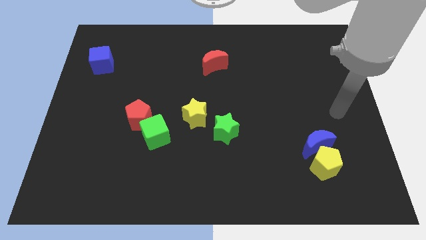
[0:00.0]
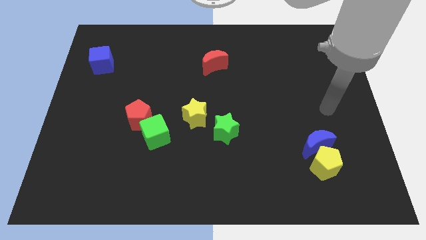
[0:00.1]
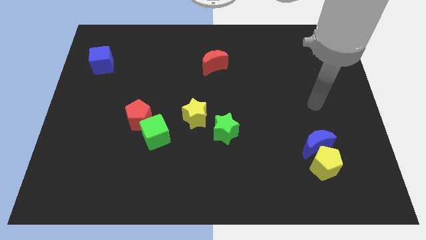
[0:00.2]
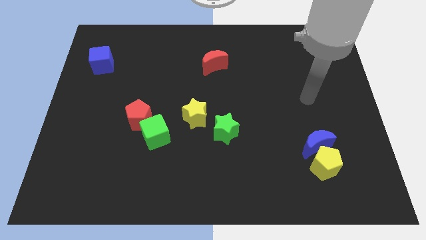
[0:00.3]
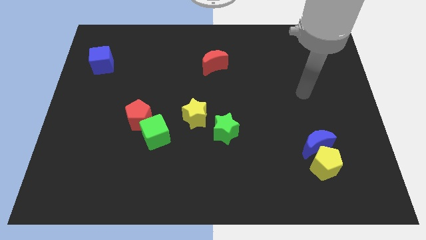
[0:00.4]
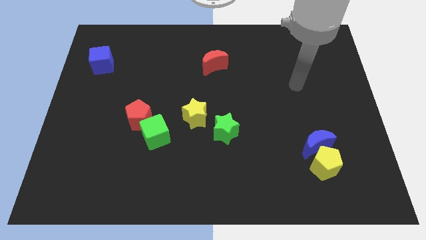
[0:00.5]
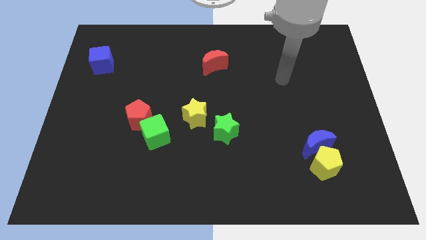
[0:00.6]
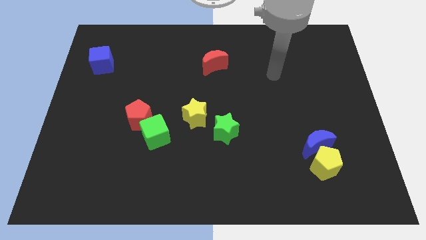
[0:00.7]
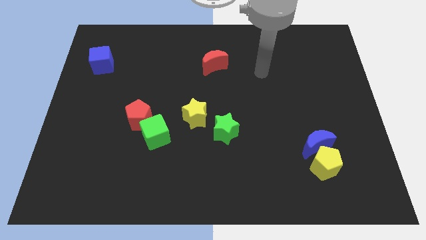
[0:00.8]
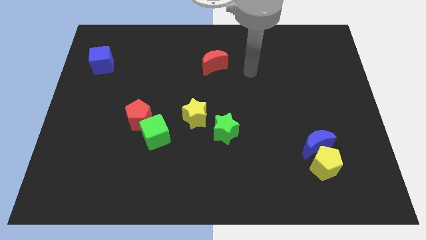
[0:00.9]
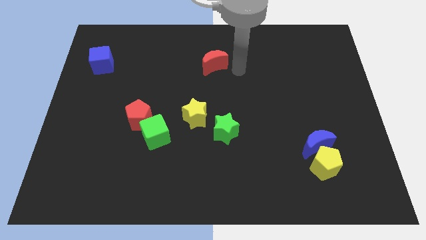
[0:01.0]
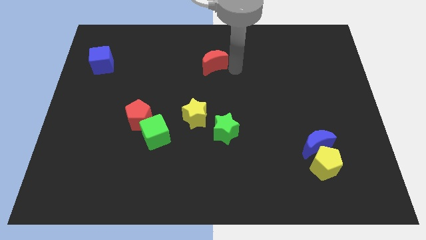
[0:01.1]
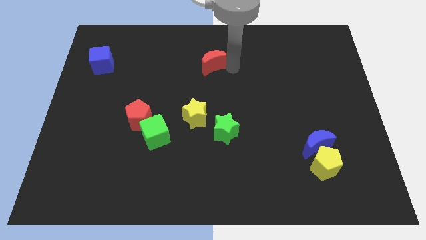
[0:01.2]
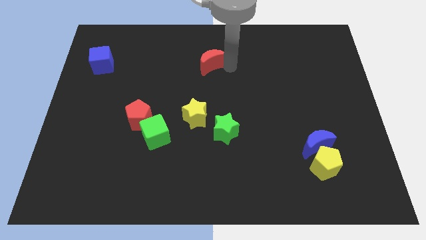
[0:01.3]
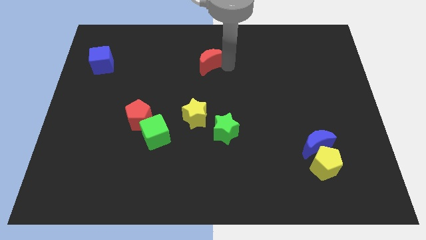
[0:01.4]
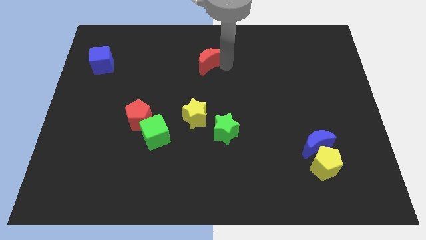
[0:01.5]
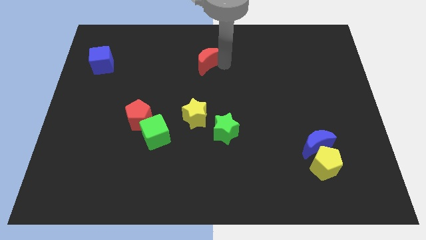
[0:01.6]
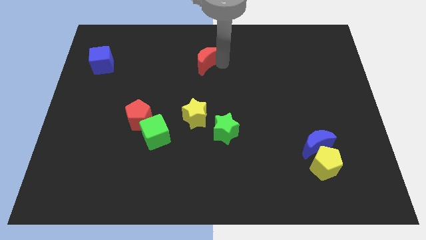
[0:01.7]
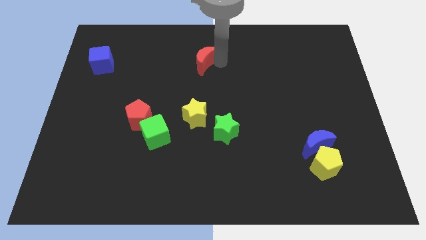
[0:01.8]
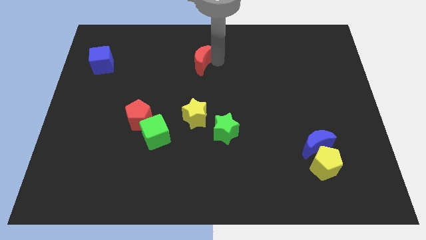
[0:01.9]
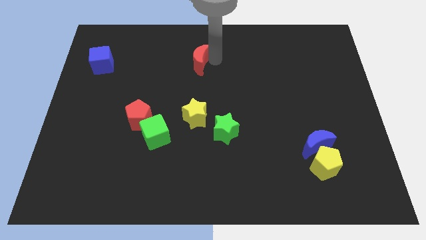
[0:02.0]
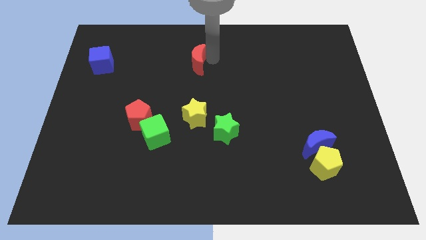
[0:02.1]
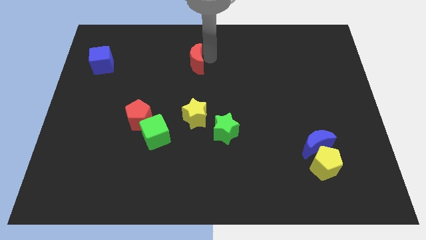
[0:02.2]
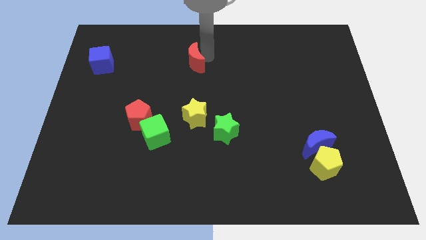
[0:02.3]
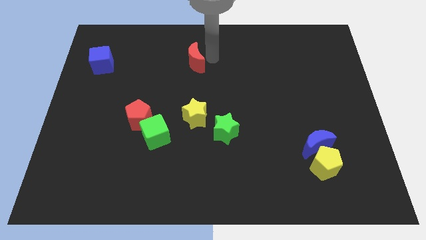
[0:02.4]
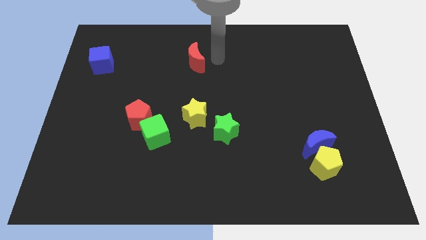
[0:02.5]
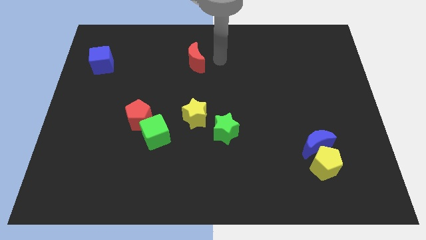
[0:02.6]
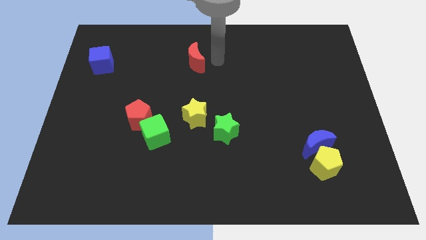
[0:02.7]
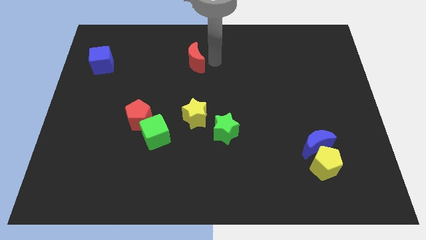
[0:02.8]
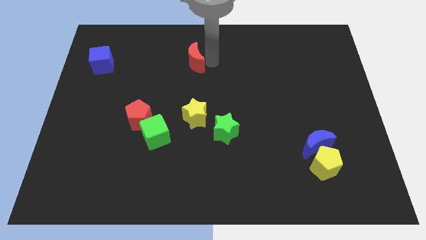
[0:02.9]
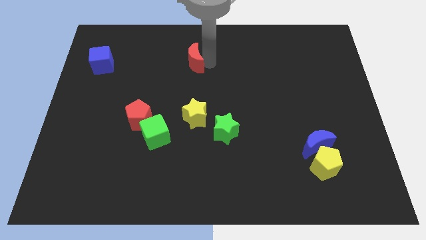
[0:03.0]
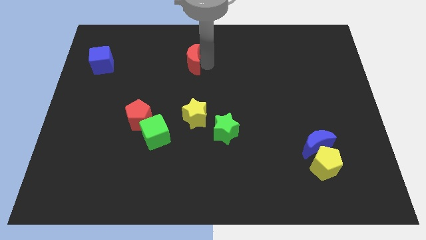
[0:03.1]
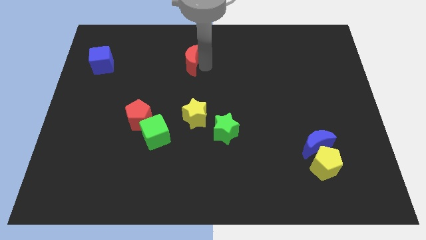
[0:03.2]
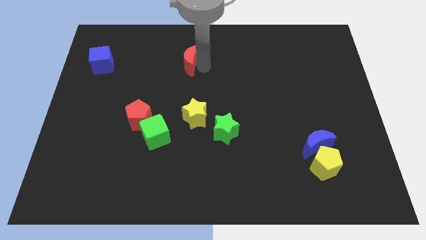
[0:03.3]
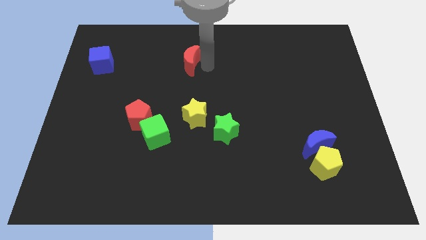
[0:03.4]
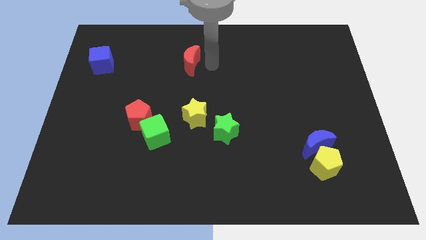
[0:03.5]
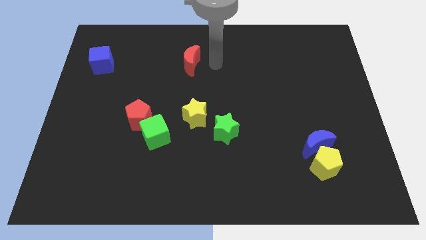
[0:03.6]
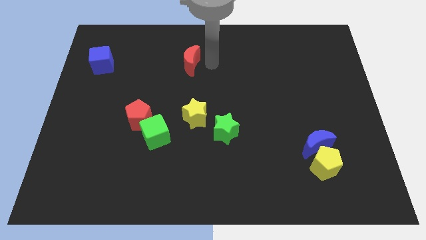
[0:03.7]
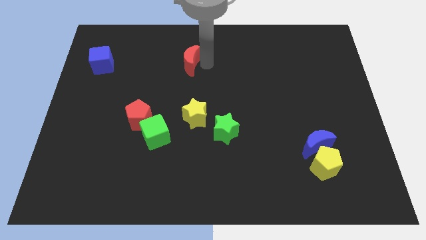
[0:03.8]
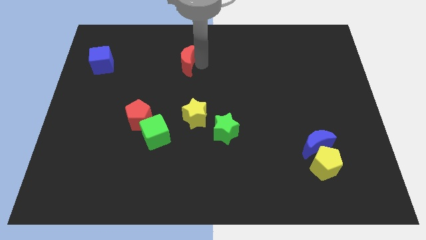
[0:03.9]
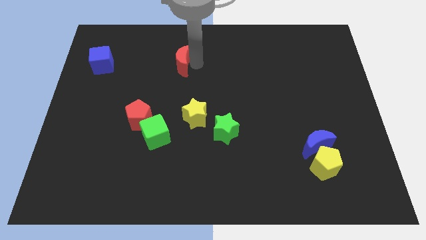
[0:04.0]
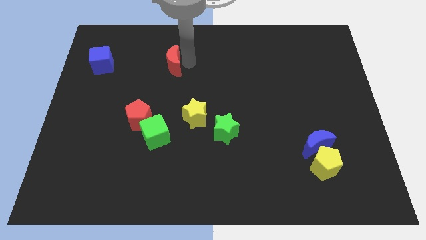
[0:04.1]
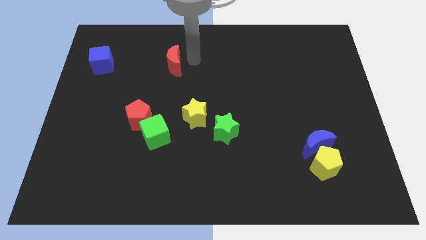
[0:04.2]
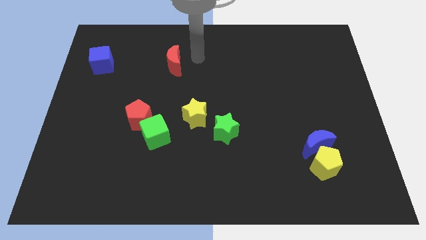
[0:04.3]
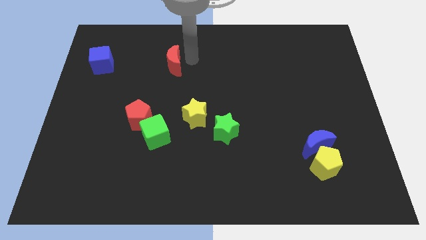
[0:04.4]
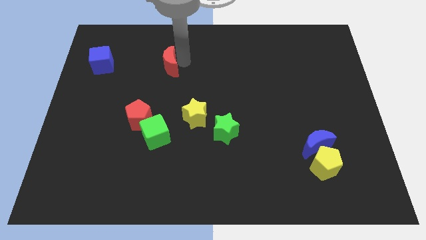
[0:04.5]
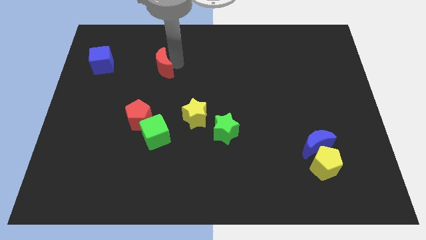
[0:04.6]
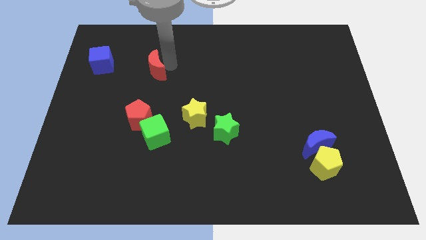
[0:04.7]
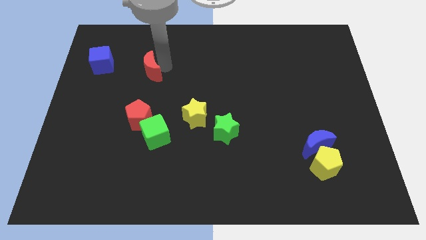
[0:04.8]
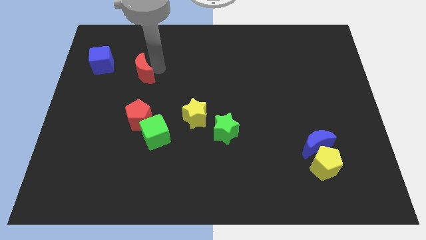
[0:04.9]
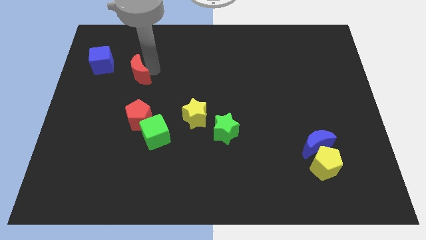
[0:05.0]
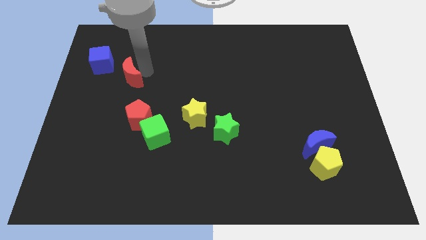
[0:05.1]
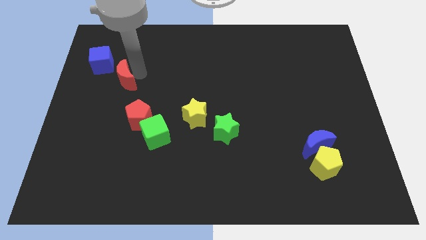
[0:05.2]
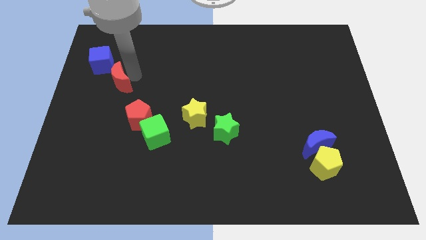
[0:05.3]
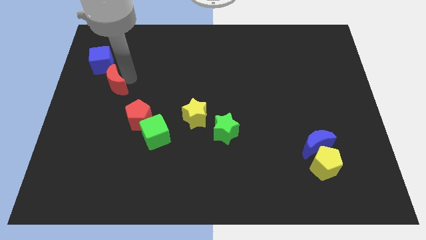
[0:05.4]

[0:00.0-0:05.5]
push the red moon below the blue cube

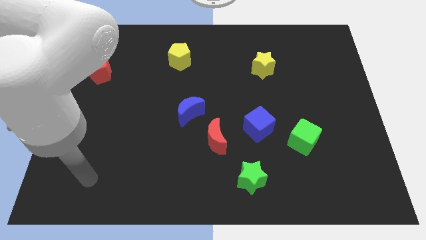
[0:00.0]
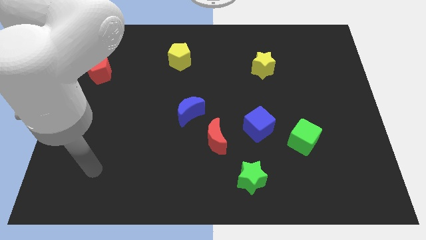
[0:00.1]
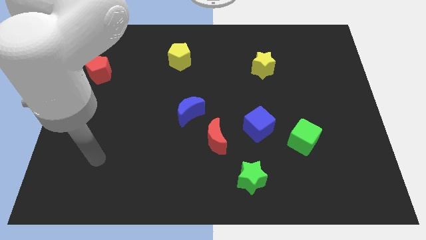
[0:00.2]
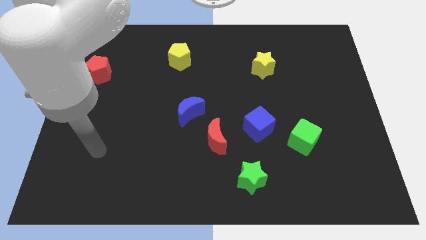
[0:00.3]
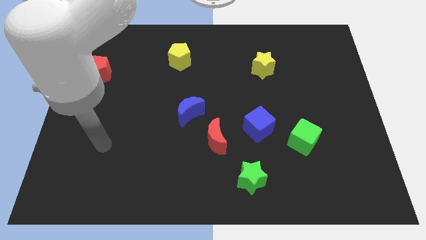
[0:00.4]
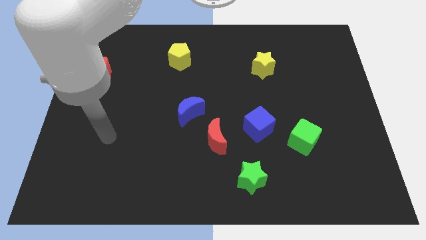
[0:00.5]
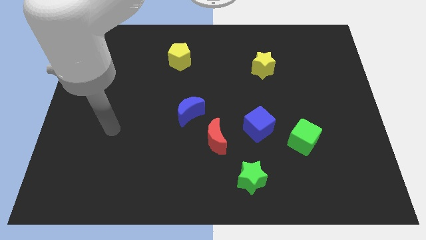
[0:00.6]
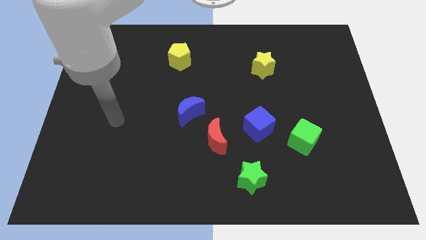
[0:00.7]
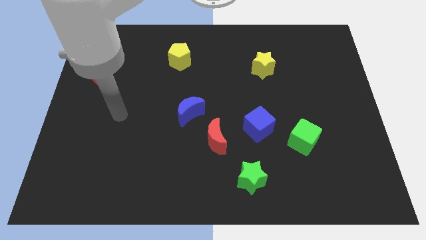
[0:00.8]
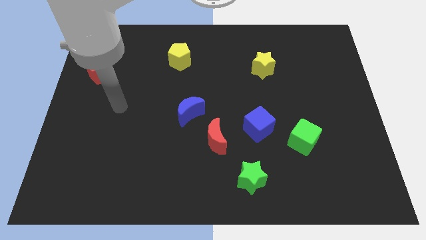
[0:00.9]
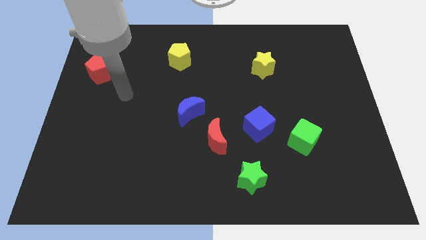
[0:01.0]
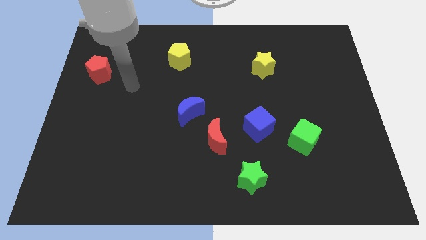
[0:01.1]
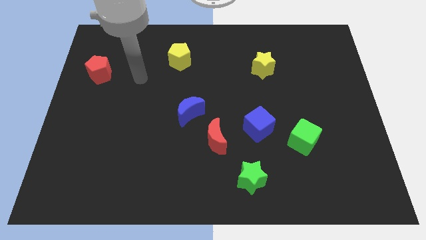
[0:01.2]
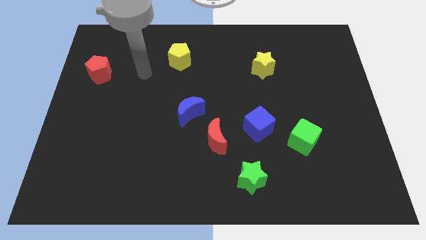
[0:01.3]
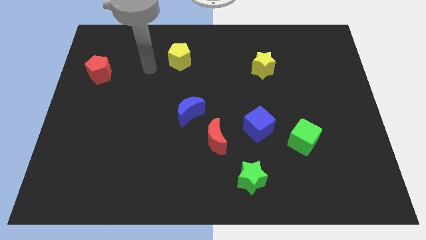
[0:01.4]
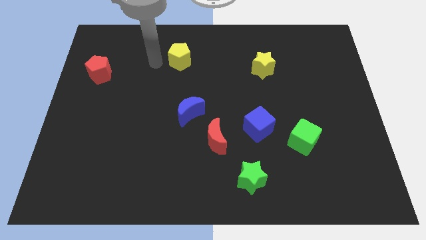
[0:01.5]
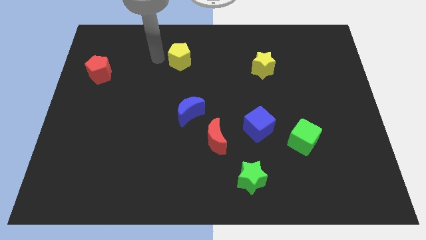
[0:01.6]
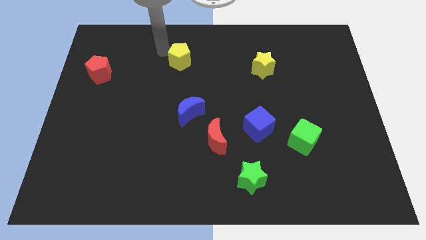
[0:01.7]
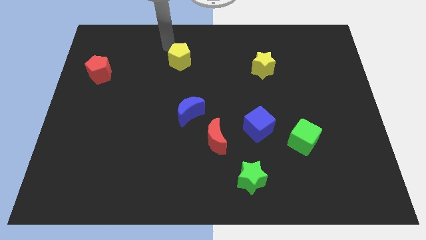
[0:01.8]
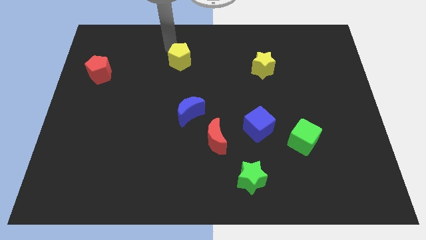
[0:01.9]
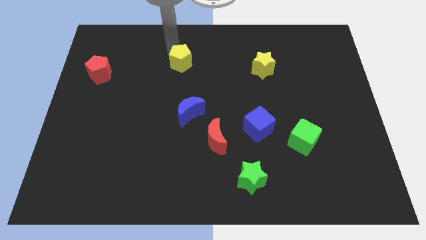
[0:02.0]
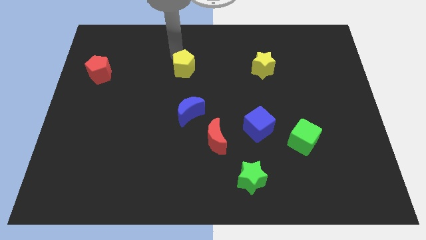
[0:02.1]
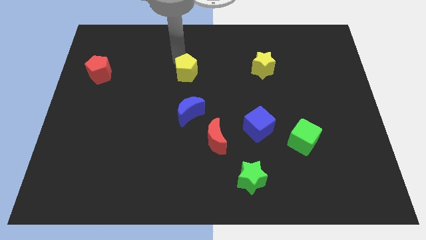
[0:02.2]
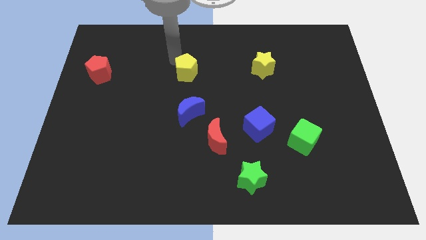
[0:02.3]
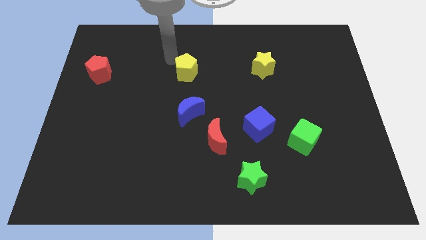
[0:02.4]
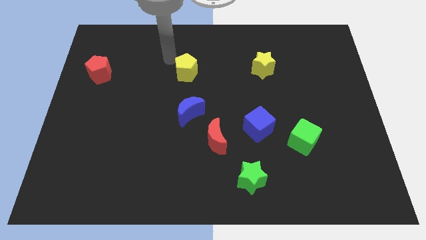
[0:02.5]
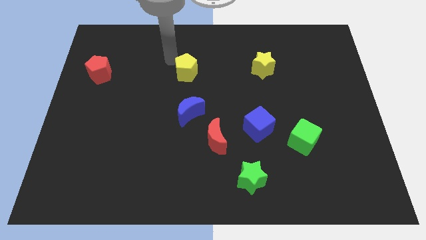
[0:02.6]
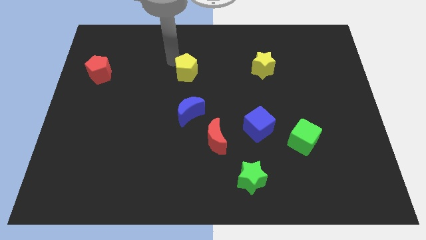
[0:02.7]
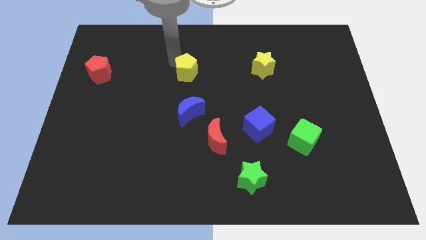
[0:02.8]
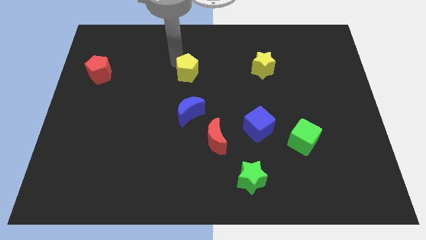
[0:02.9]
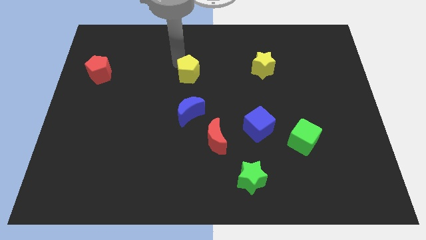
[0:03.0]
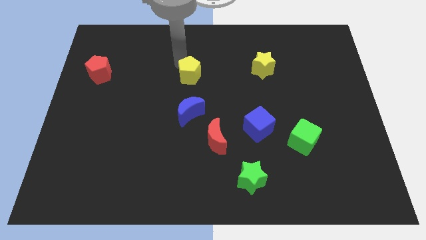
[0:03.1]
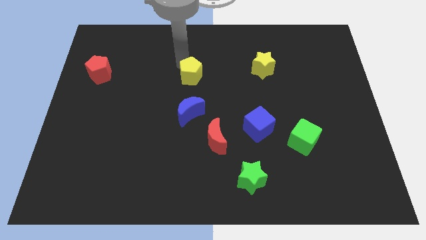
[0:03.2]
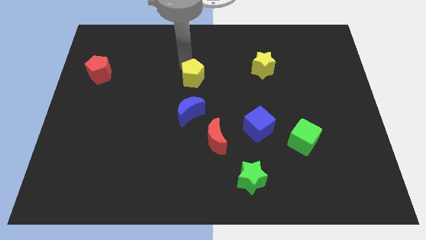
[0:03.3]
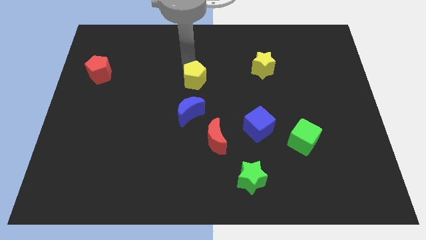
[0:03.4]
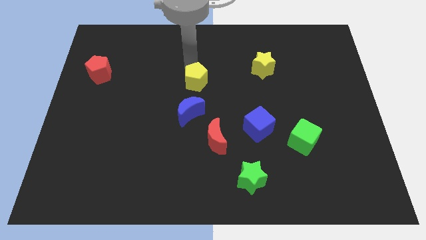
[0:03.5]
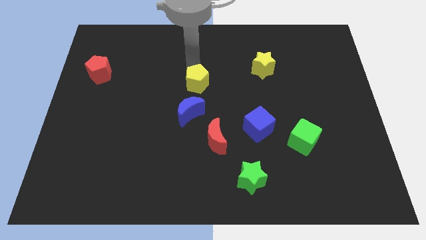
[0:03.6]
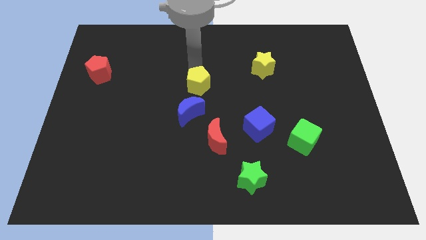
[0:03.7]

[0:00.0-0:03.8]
move the yellow pentagon to the top right side of the blue moon
